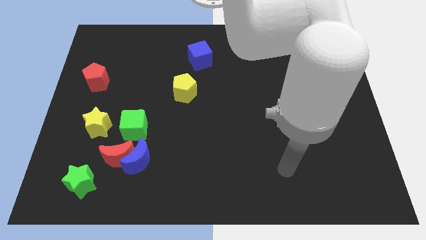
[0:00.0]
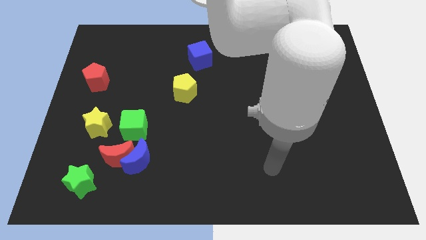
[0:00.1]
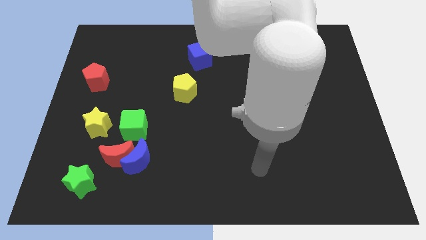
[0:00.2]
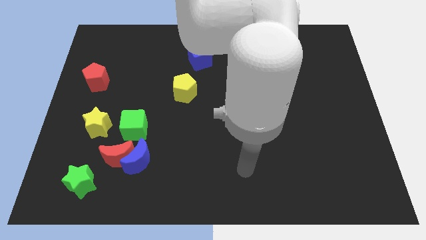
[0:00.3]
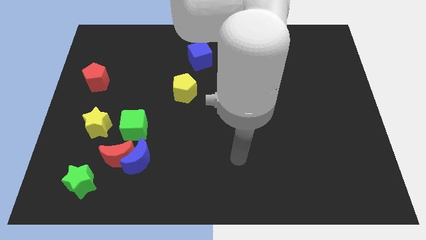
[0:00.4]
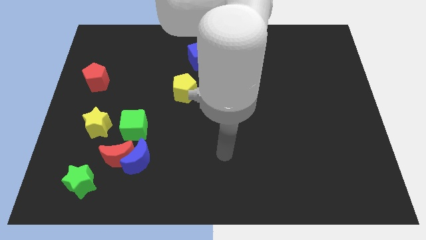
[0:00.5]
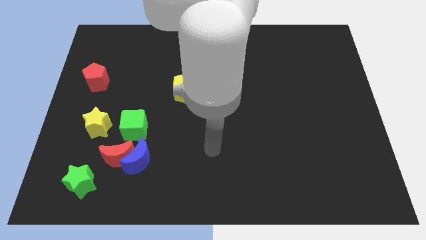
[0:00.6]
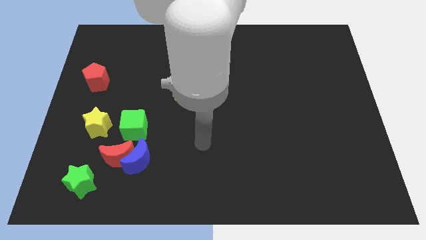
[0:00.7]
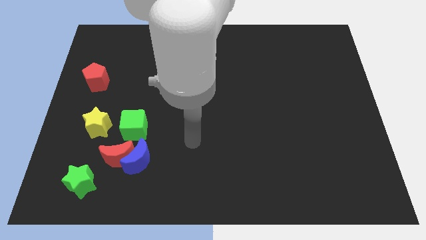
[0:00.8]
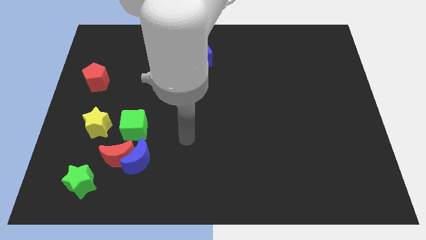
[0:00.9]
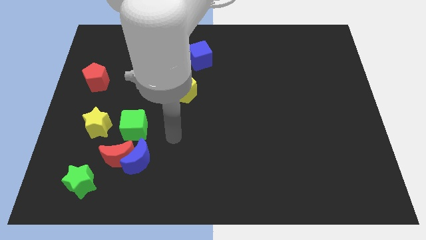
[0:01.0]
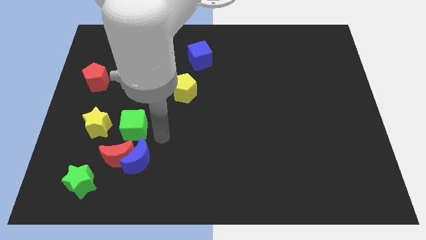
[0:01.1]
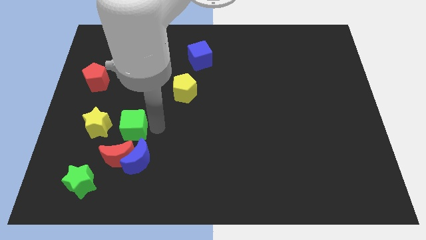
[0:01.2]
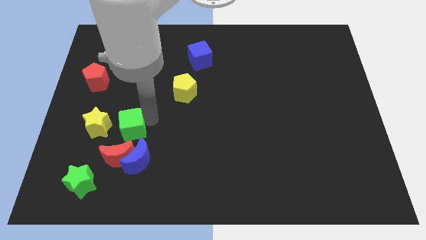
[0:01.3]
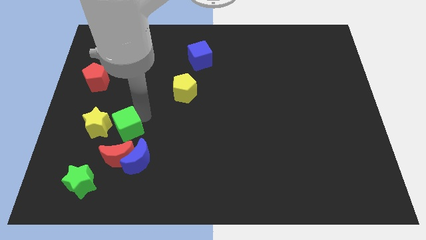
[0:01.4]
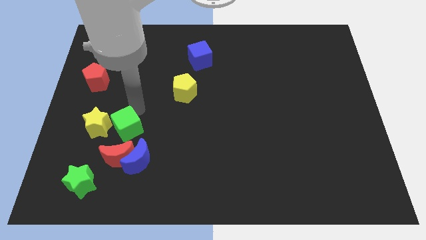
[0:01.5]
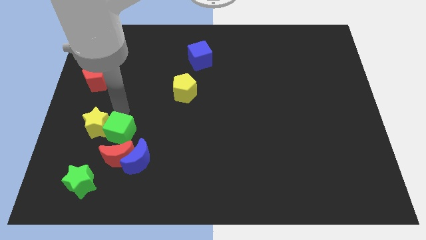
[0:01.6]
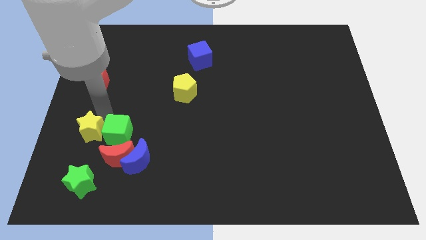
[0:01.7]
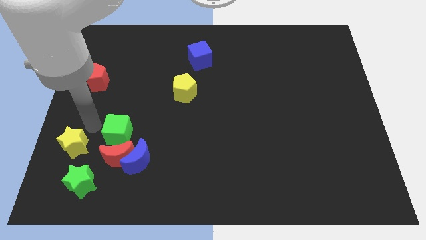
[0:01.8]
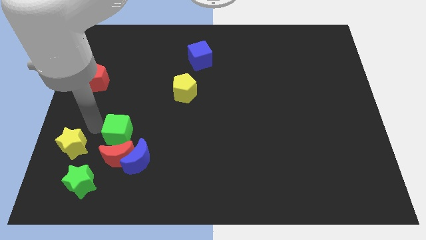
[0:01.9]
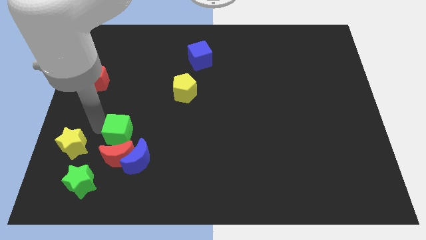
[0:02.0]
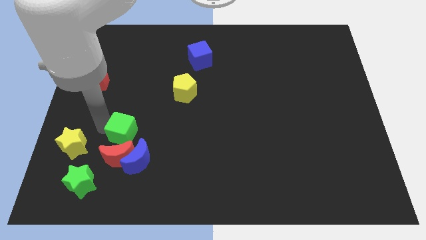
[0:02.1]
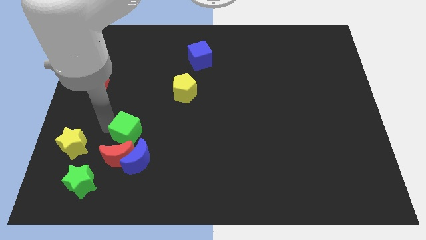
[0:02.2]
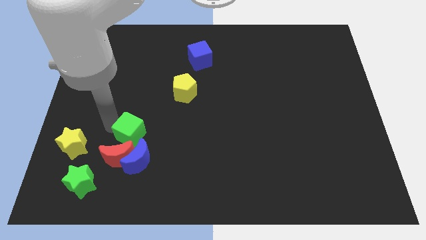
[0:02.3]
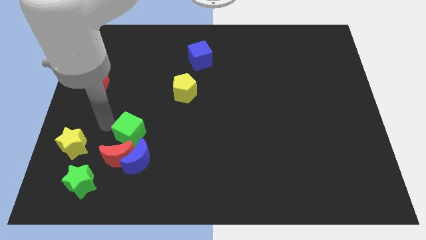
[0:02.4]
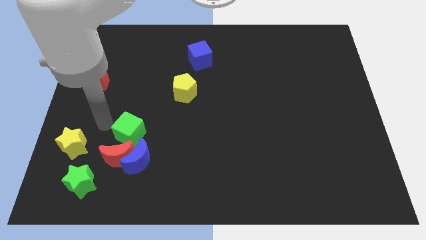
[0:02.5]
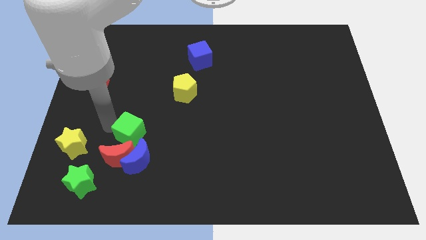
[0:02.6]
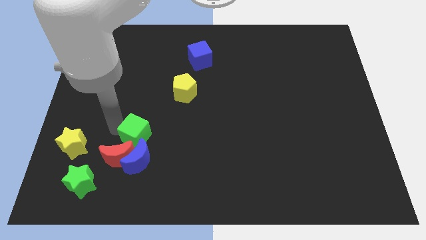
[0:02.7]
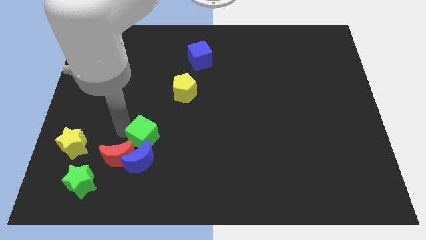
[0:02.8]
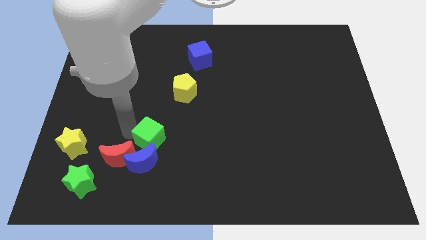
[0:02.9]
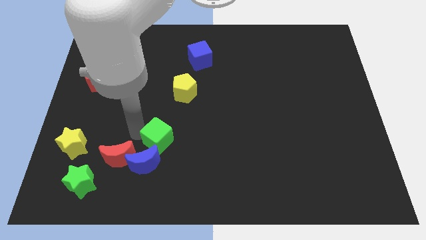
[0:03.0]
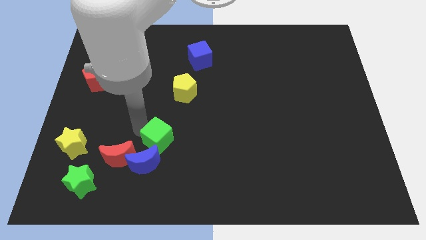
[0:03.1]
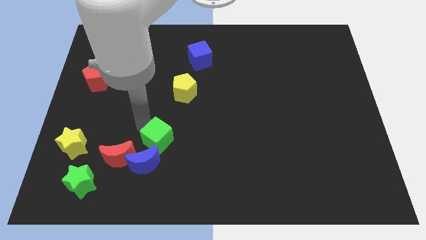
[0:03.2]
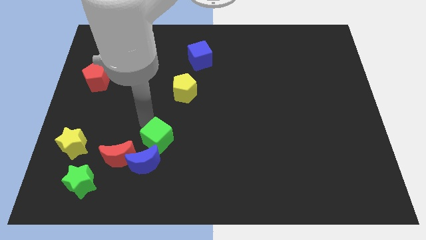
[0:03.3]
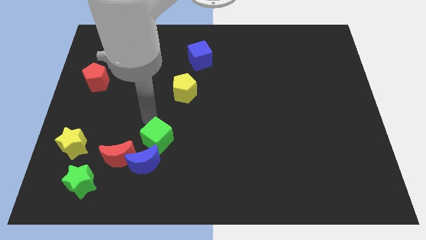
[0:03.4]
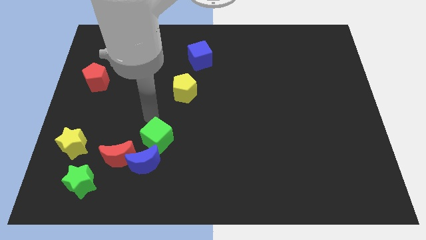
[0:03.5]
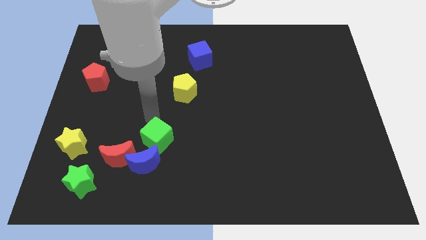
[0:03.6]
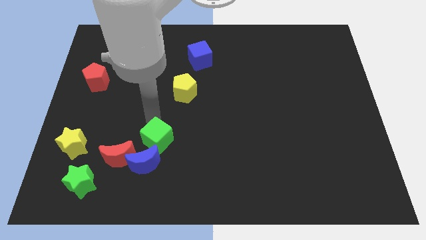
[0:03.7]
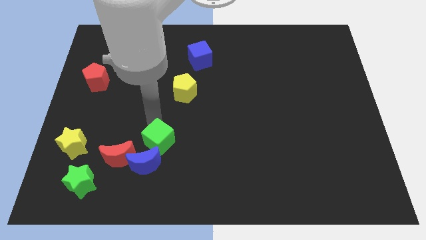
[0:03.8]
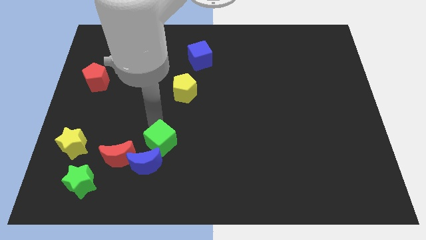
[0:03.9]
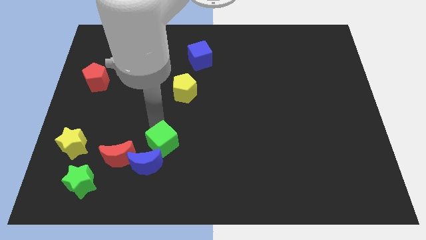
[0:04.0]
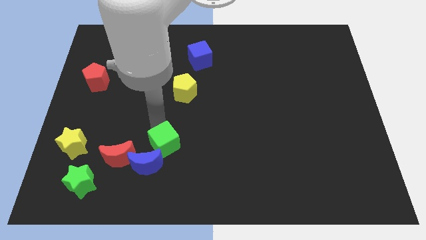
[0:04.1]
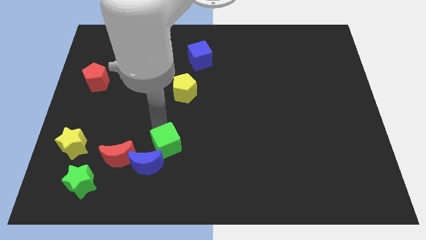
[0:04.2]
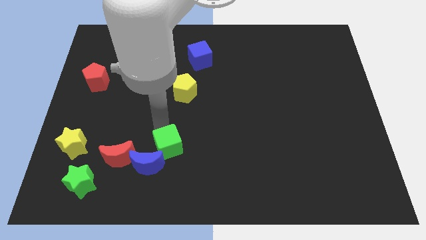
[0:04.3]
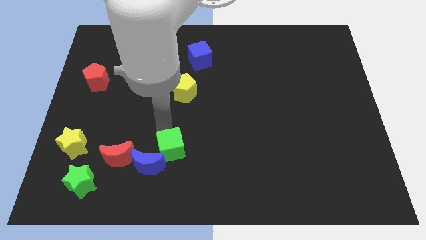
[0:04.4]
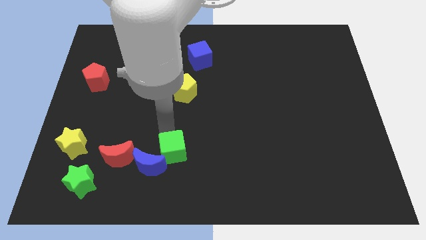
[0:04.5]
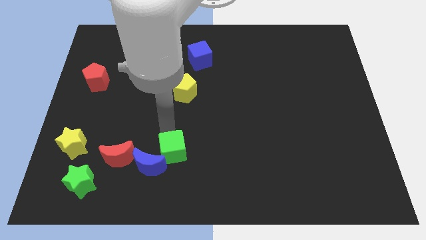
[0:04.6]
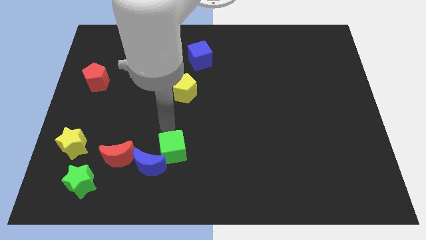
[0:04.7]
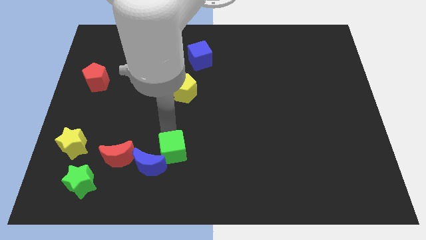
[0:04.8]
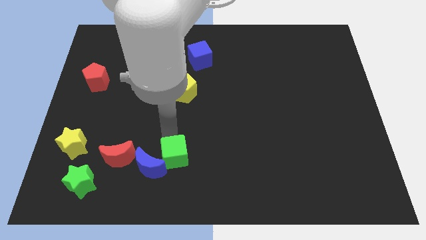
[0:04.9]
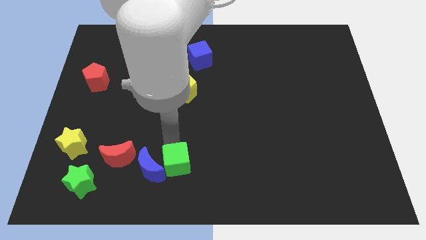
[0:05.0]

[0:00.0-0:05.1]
push the green cube to the bottom side

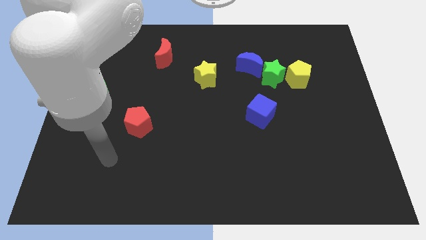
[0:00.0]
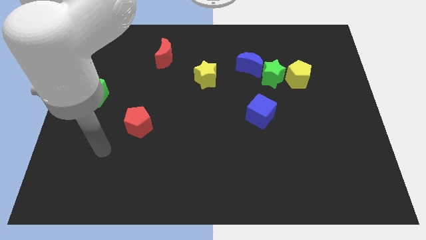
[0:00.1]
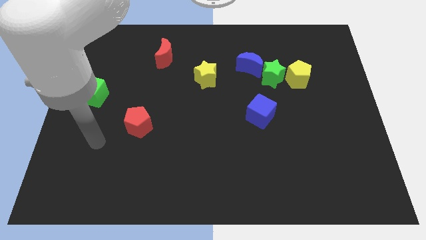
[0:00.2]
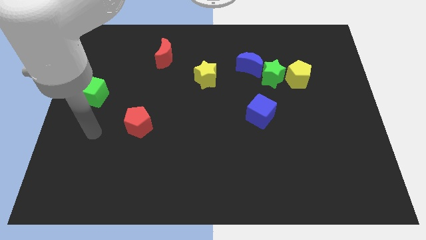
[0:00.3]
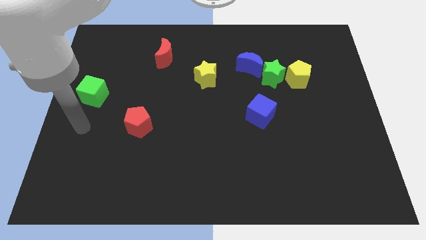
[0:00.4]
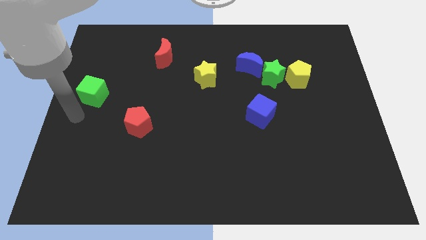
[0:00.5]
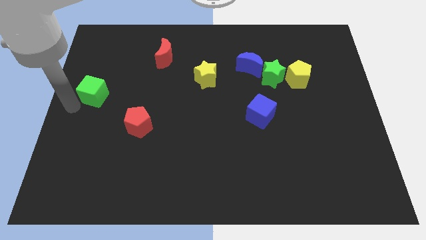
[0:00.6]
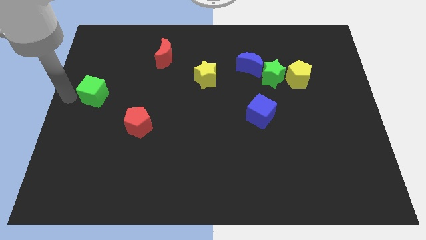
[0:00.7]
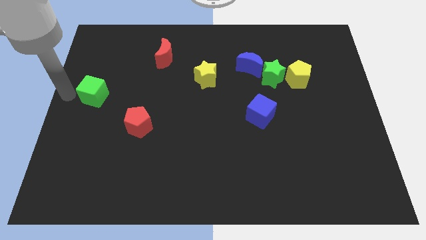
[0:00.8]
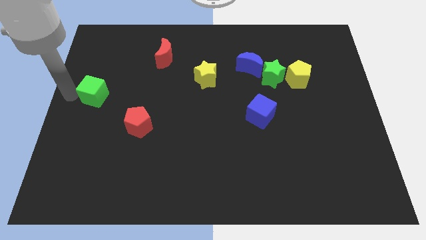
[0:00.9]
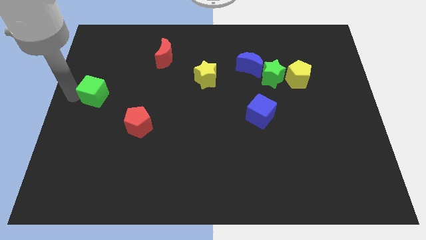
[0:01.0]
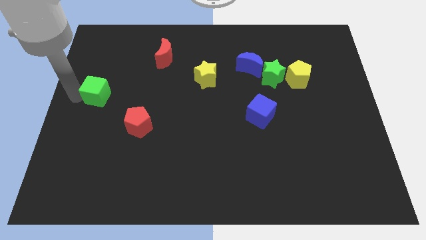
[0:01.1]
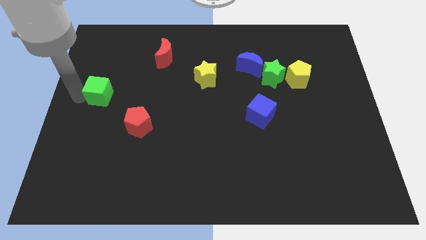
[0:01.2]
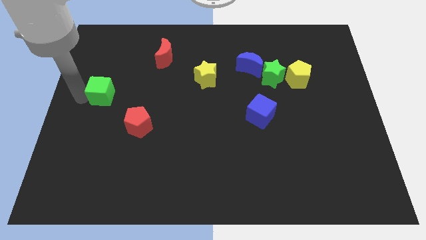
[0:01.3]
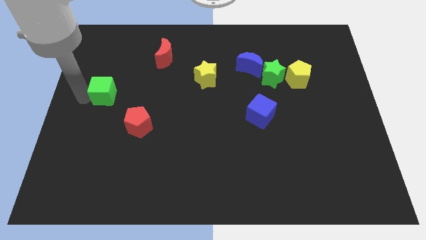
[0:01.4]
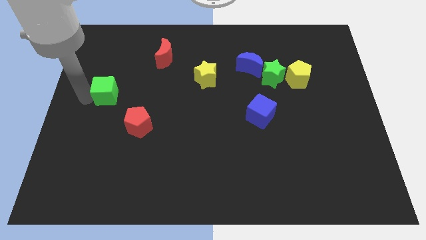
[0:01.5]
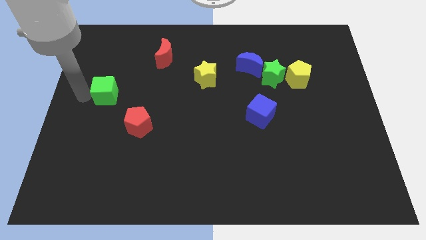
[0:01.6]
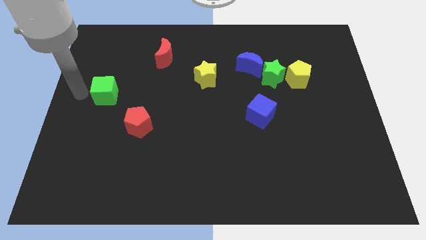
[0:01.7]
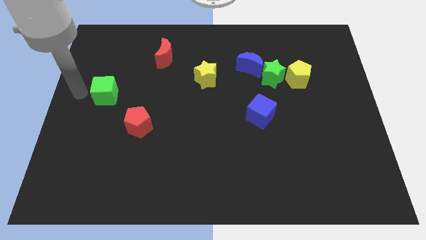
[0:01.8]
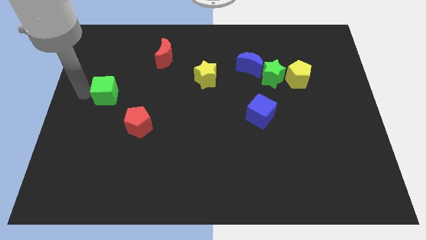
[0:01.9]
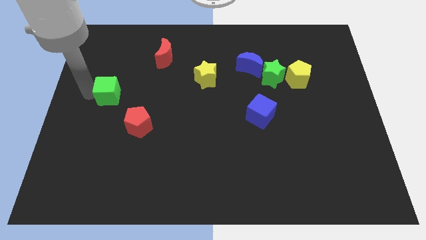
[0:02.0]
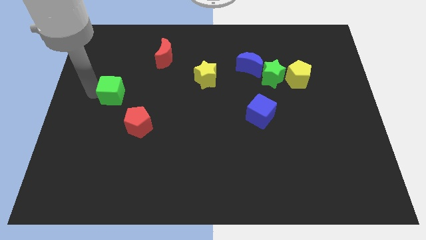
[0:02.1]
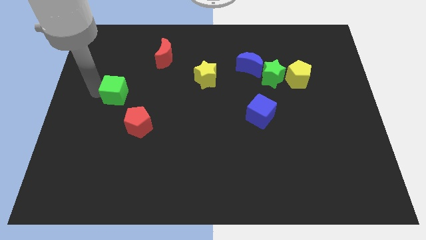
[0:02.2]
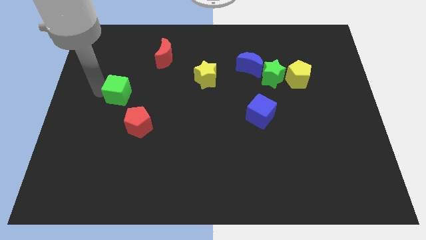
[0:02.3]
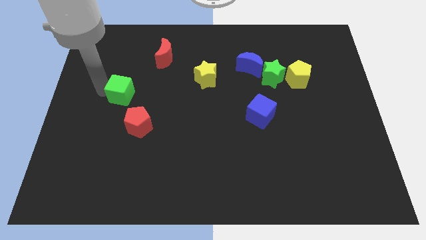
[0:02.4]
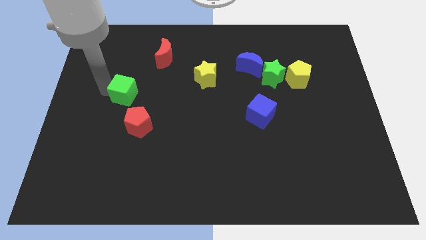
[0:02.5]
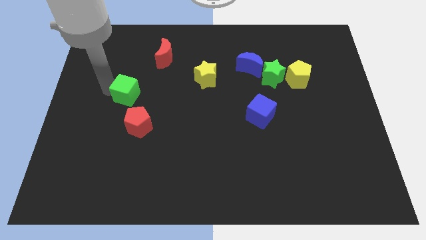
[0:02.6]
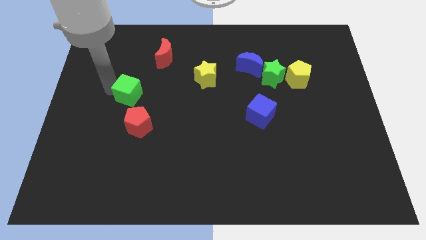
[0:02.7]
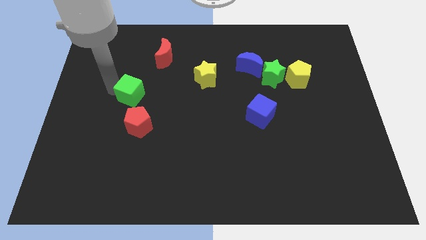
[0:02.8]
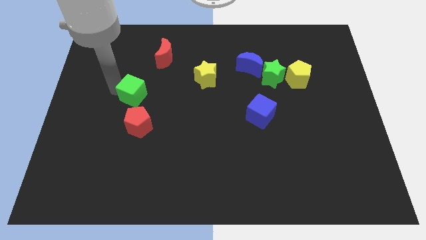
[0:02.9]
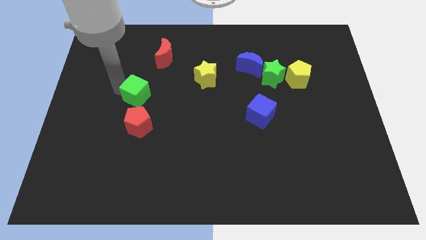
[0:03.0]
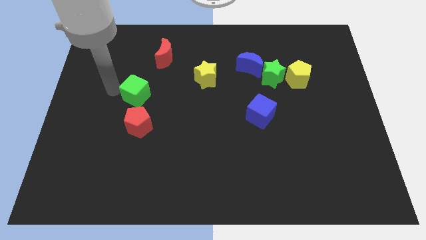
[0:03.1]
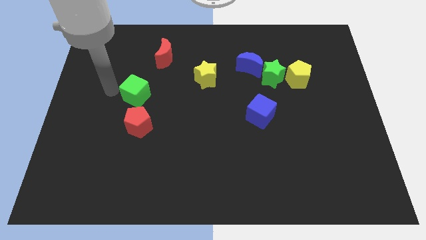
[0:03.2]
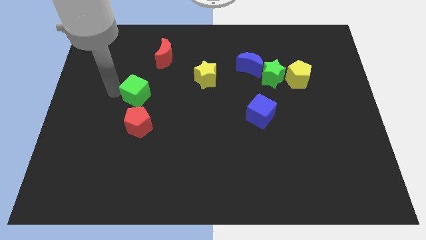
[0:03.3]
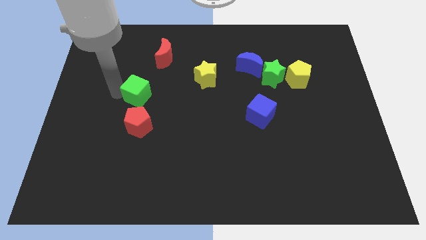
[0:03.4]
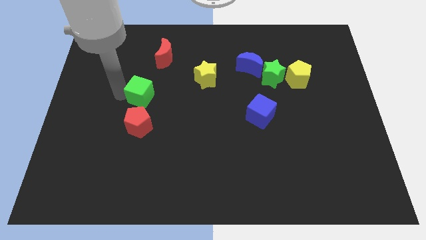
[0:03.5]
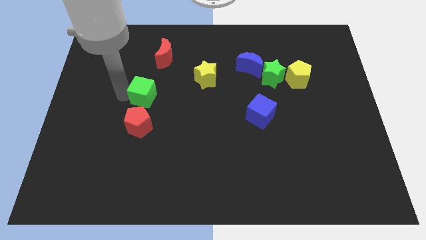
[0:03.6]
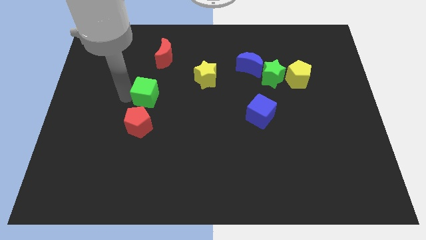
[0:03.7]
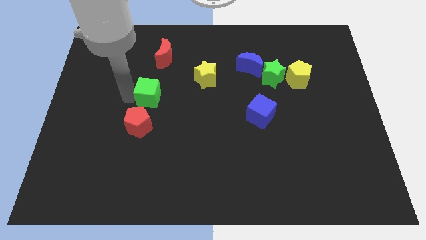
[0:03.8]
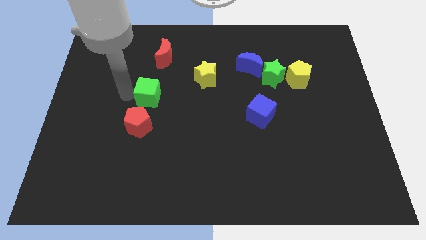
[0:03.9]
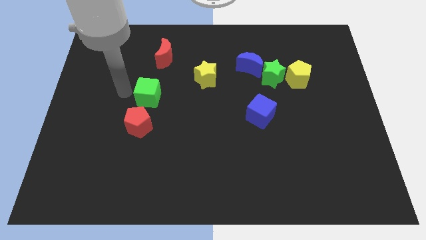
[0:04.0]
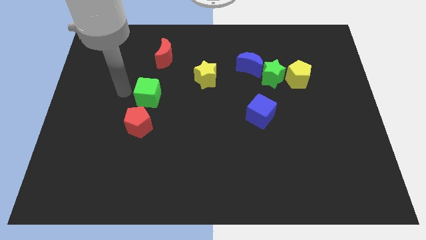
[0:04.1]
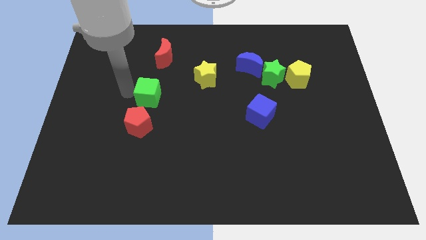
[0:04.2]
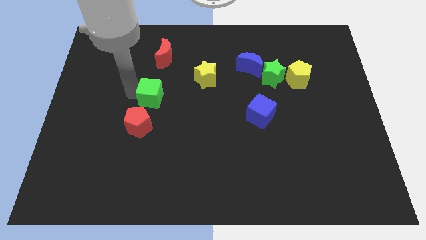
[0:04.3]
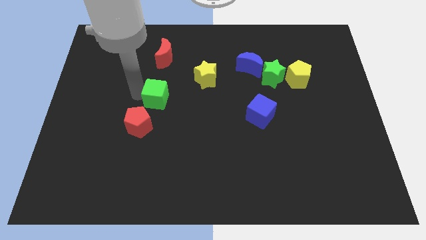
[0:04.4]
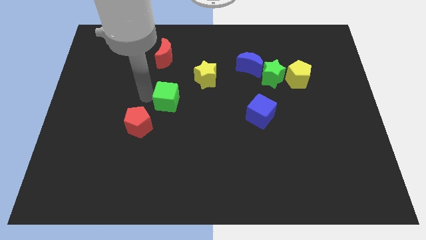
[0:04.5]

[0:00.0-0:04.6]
slide the green cube to the center of the board
